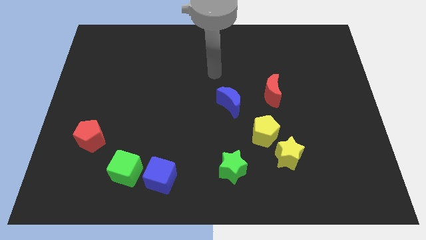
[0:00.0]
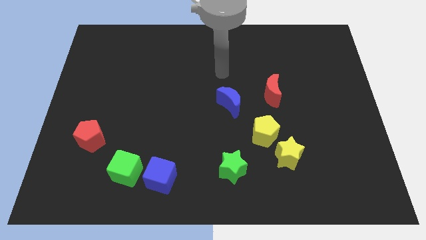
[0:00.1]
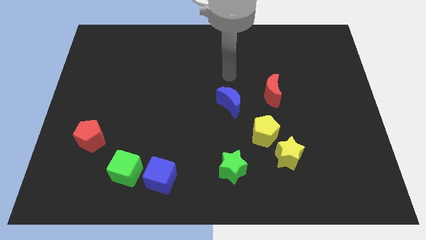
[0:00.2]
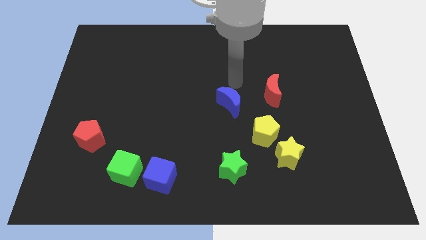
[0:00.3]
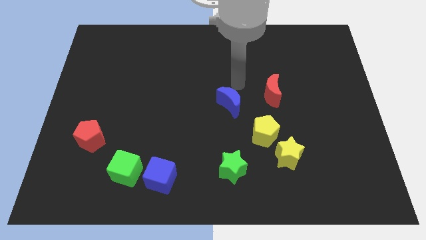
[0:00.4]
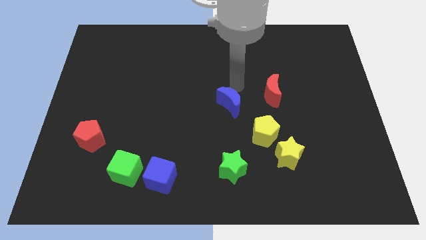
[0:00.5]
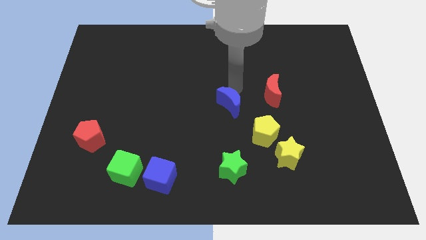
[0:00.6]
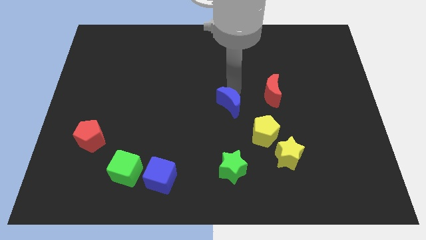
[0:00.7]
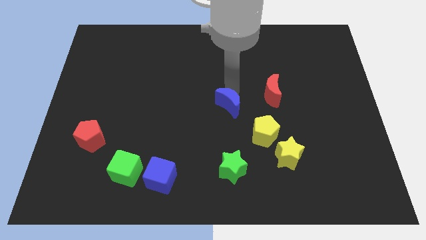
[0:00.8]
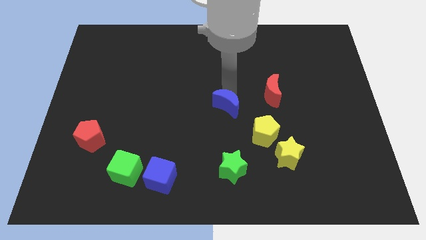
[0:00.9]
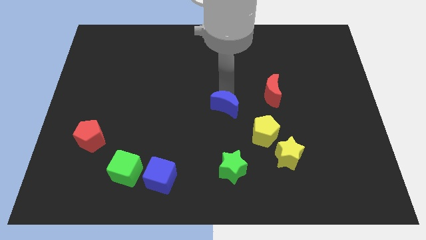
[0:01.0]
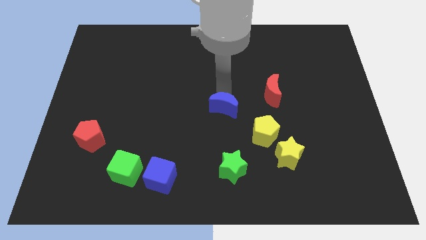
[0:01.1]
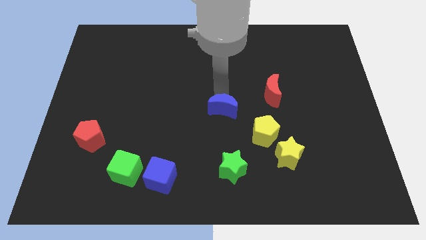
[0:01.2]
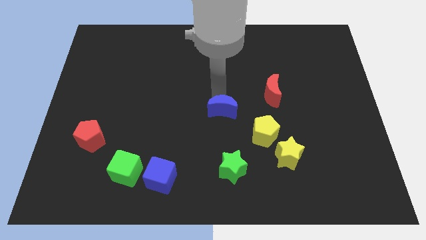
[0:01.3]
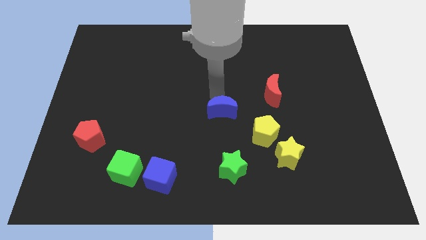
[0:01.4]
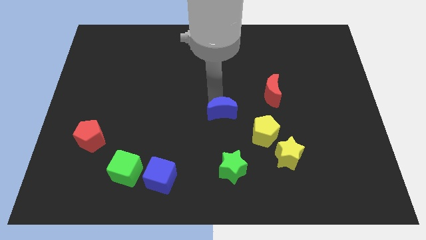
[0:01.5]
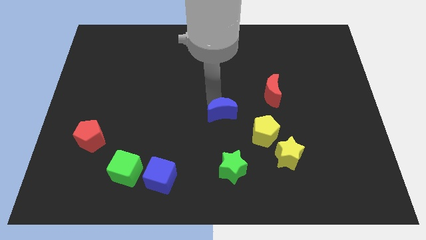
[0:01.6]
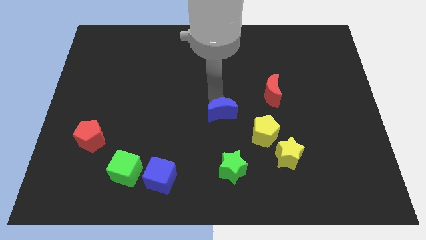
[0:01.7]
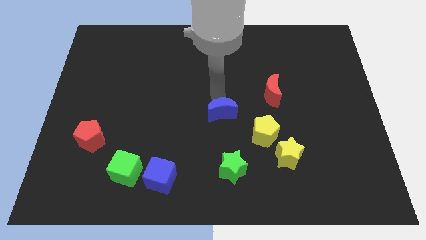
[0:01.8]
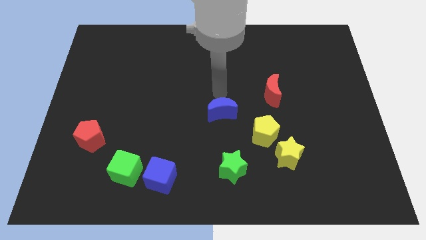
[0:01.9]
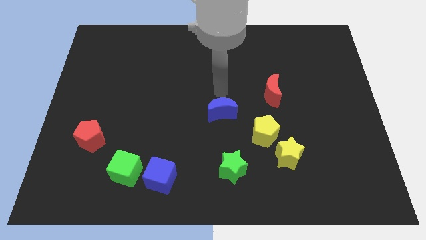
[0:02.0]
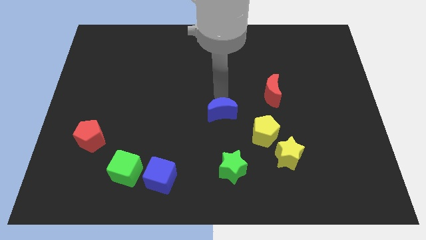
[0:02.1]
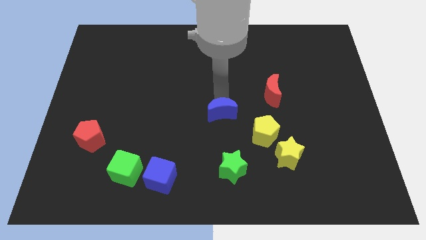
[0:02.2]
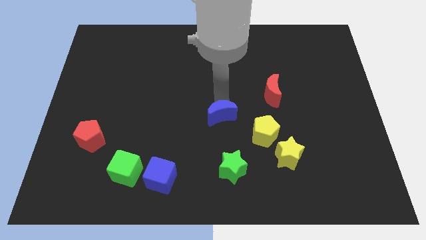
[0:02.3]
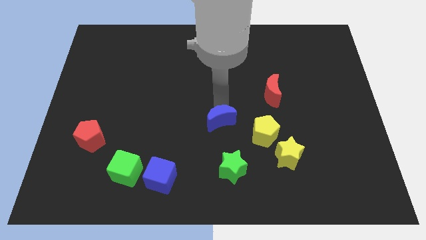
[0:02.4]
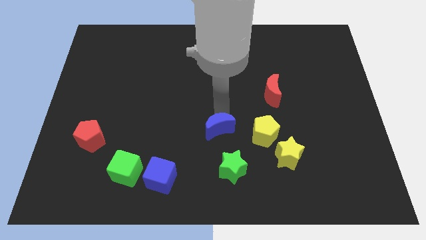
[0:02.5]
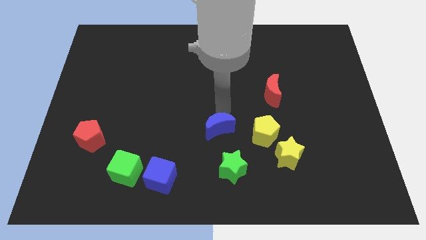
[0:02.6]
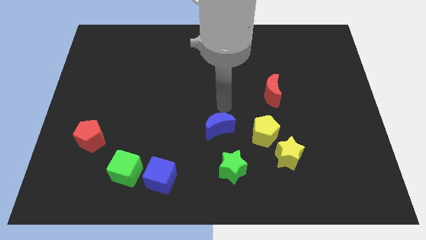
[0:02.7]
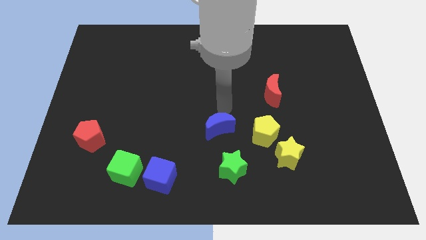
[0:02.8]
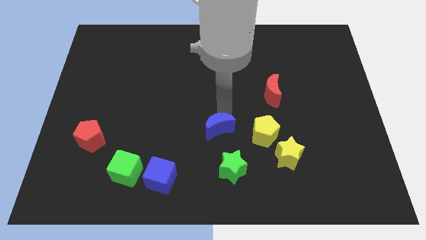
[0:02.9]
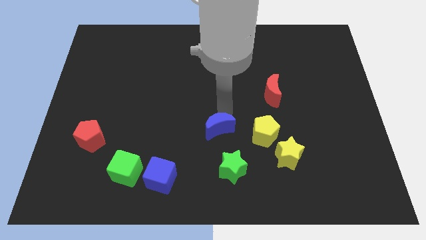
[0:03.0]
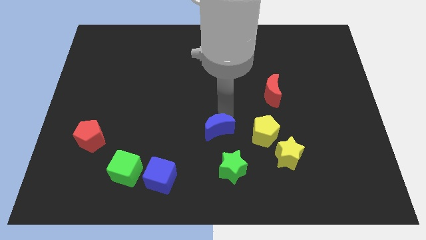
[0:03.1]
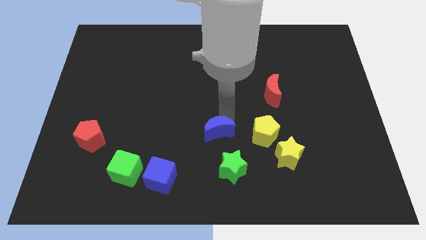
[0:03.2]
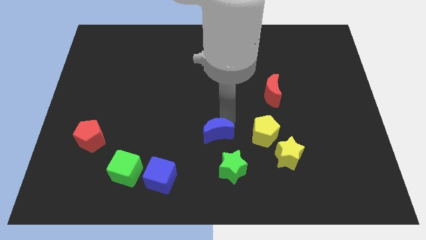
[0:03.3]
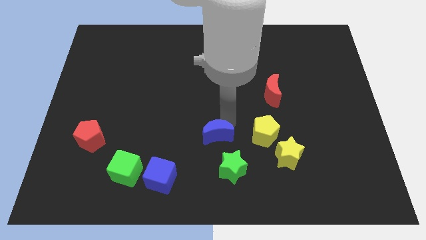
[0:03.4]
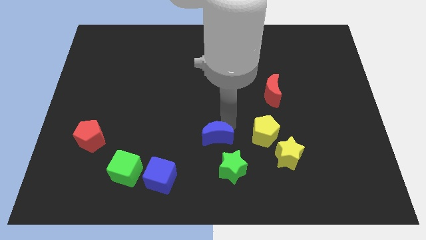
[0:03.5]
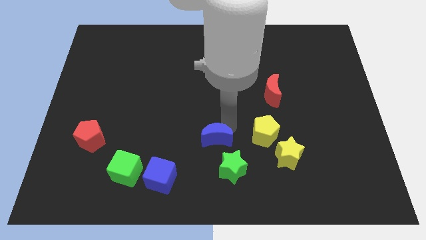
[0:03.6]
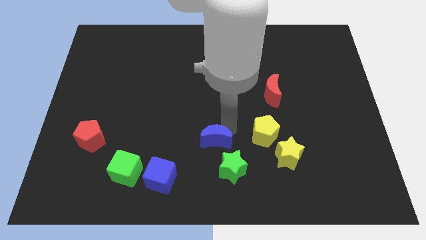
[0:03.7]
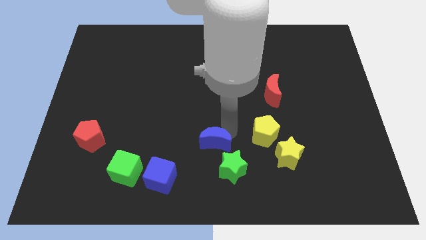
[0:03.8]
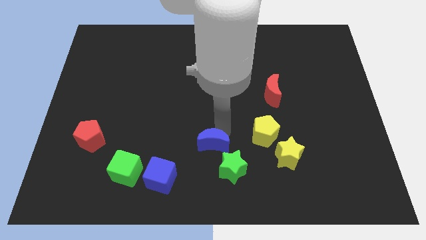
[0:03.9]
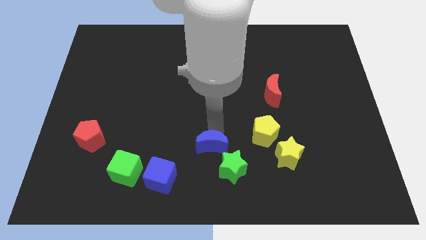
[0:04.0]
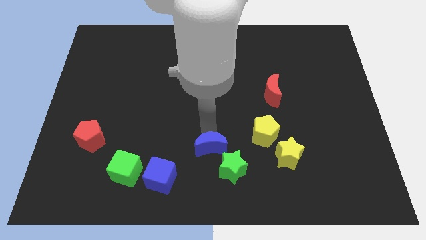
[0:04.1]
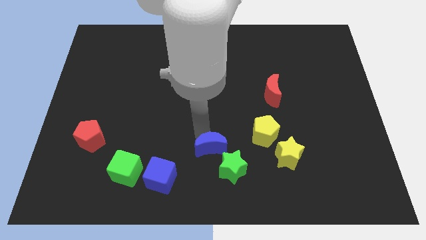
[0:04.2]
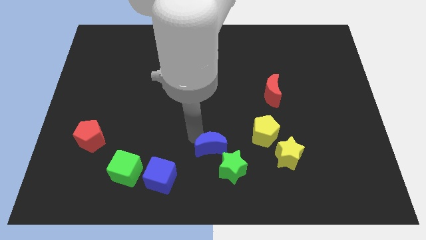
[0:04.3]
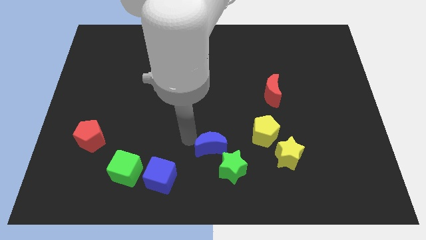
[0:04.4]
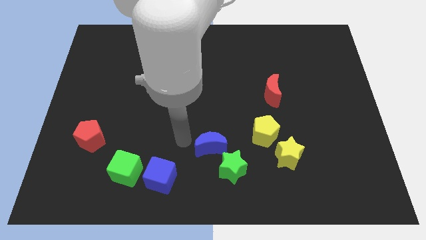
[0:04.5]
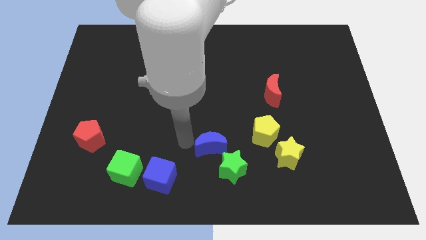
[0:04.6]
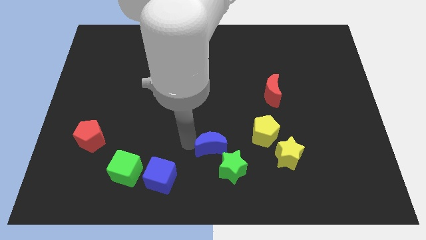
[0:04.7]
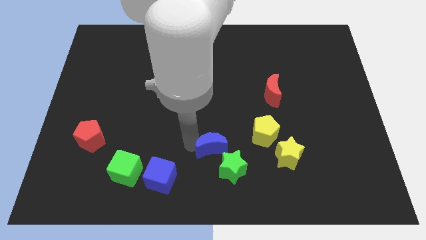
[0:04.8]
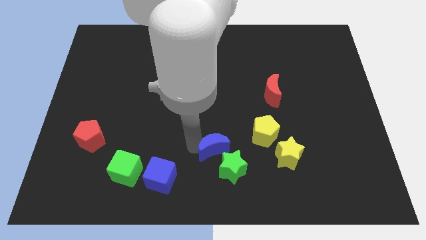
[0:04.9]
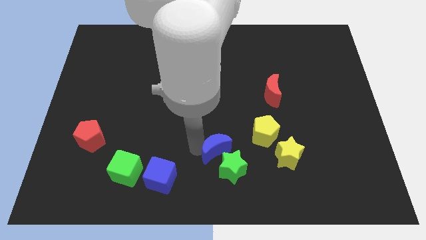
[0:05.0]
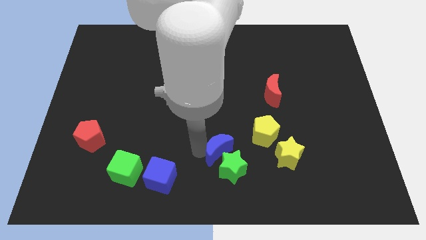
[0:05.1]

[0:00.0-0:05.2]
put the blue moon diagonally down and to the left of the yellow pentagon

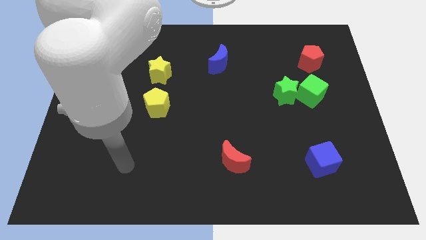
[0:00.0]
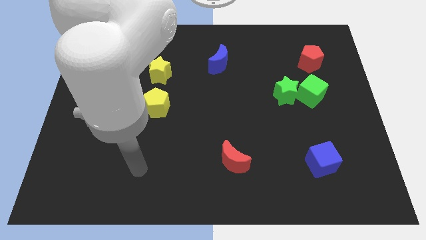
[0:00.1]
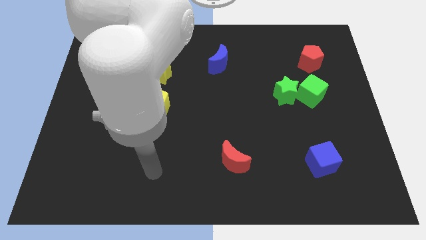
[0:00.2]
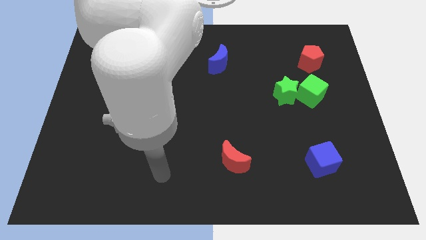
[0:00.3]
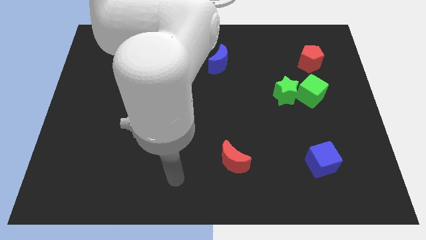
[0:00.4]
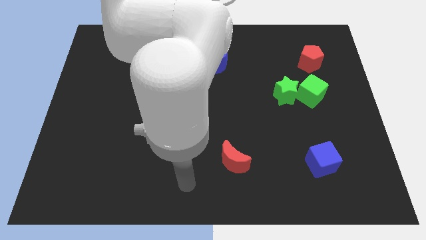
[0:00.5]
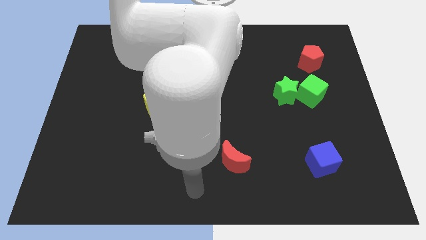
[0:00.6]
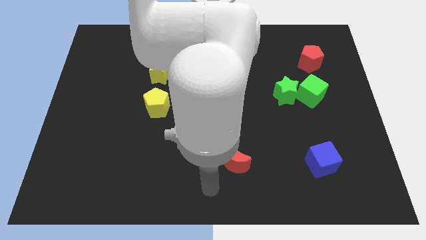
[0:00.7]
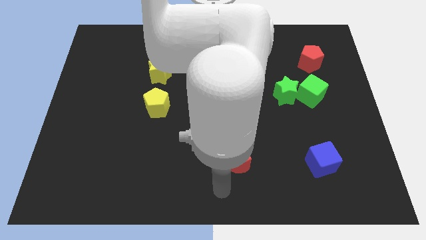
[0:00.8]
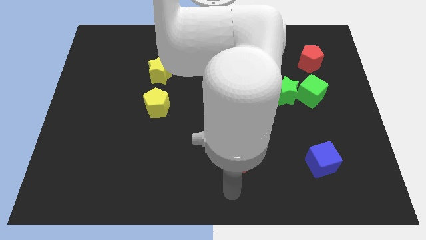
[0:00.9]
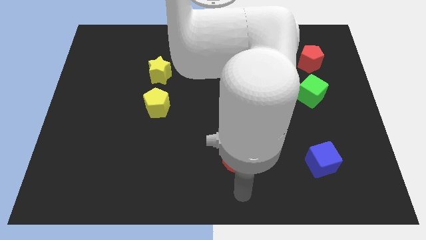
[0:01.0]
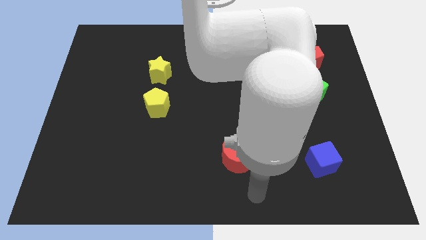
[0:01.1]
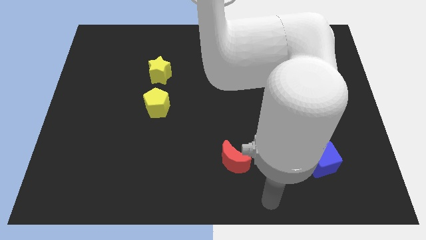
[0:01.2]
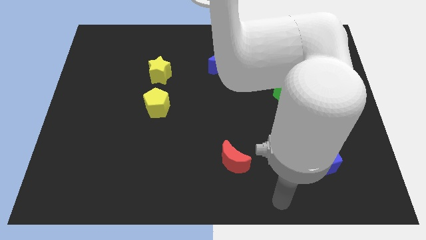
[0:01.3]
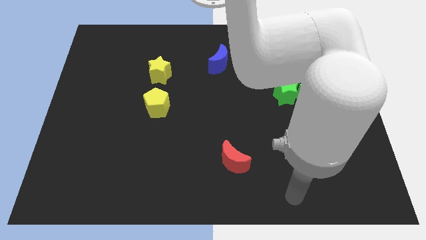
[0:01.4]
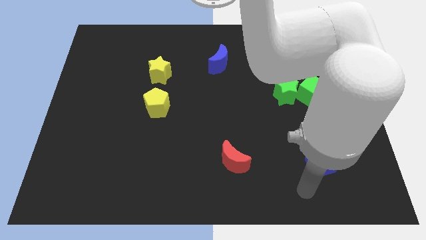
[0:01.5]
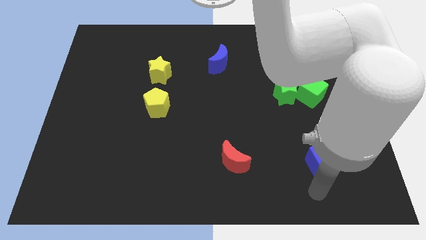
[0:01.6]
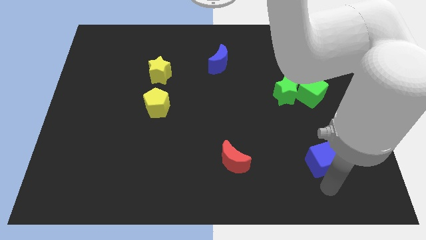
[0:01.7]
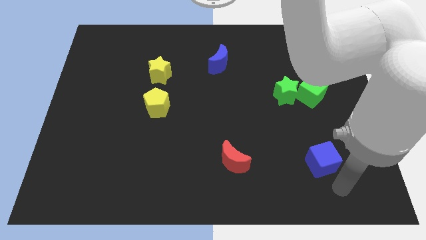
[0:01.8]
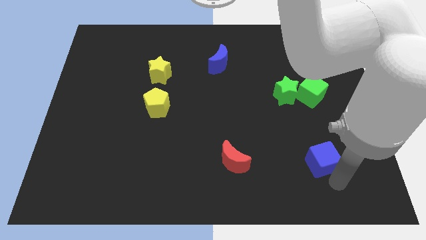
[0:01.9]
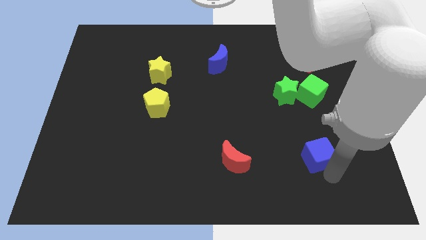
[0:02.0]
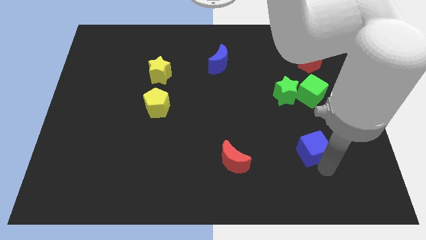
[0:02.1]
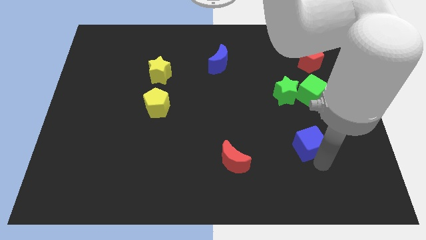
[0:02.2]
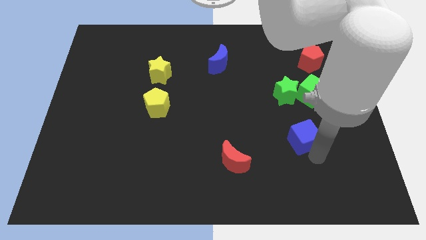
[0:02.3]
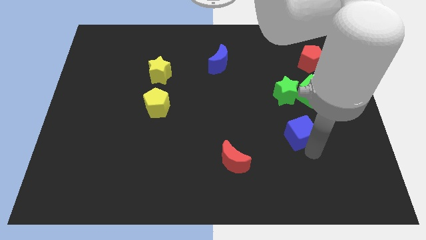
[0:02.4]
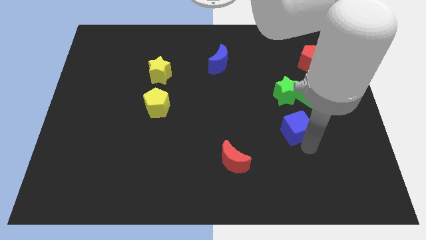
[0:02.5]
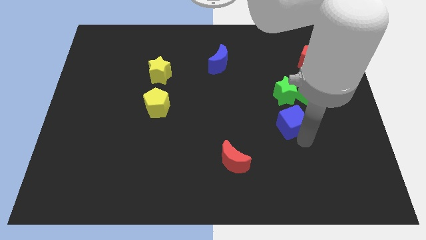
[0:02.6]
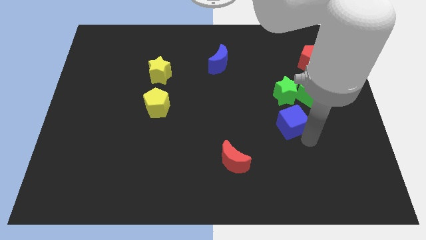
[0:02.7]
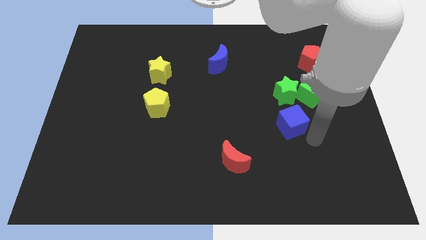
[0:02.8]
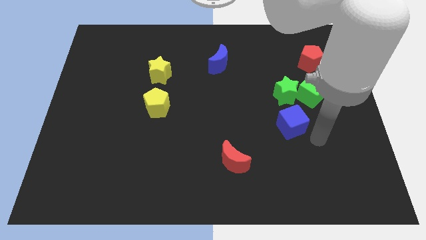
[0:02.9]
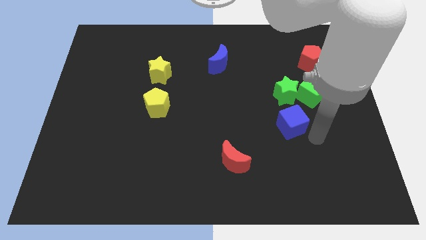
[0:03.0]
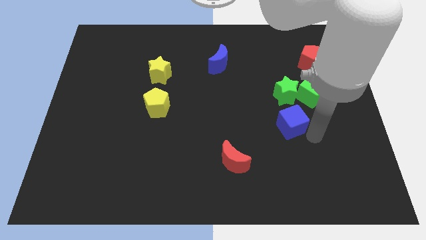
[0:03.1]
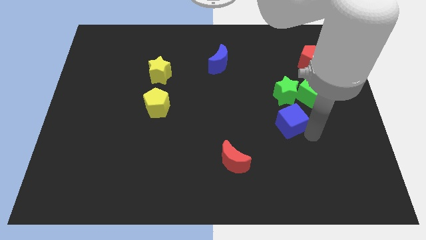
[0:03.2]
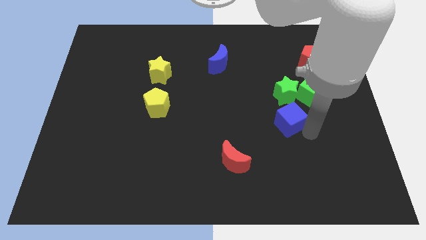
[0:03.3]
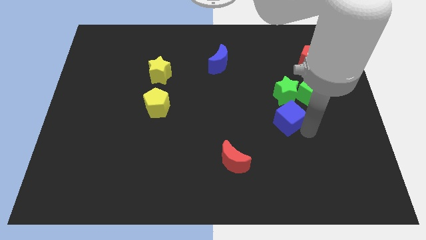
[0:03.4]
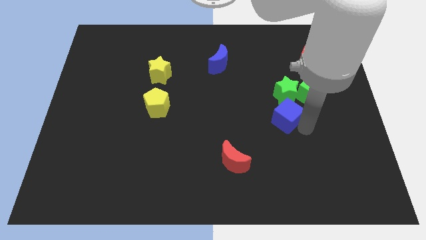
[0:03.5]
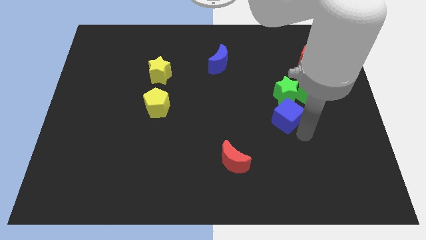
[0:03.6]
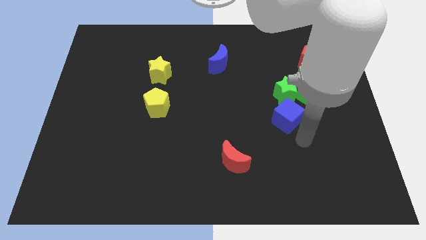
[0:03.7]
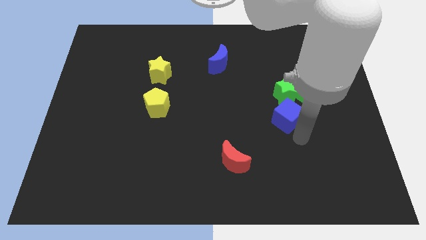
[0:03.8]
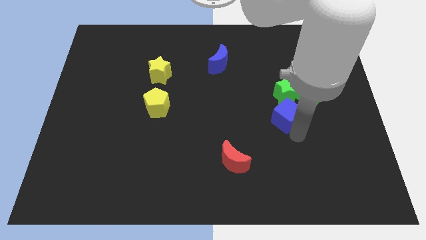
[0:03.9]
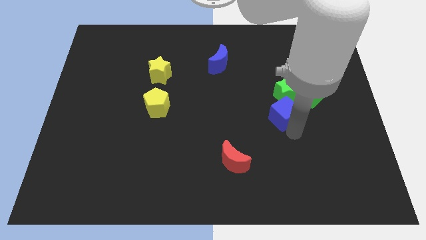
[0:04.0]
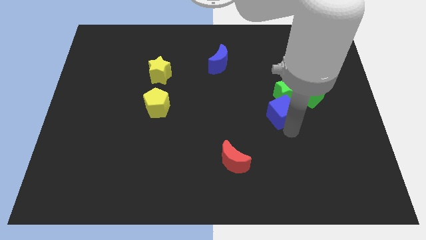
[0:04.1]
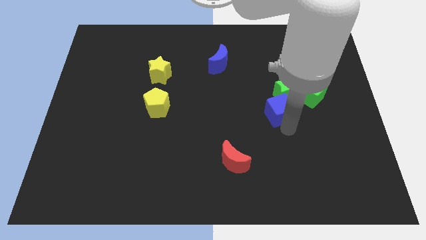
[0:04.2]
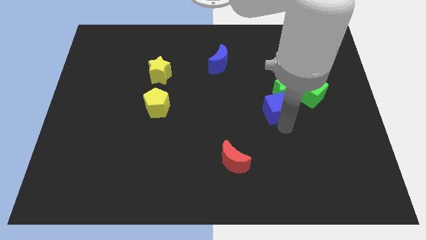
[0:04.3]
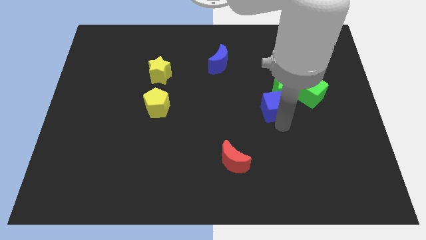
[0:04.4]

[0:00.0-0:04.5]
push the blue cube to the left of the green cube
